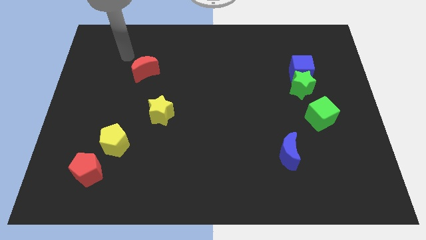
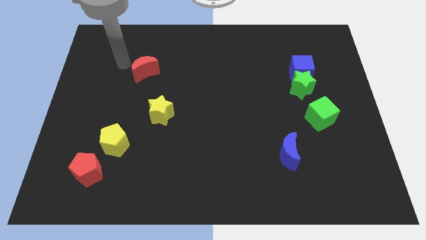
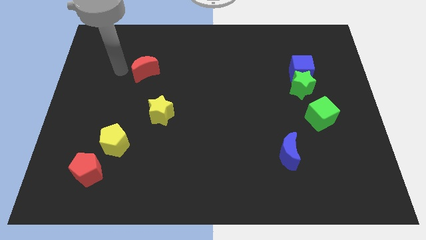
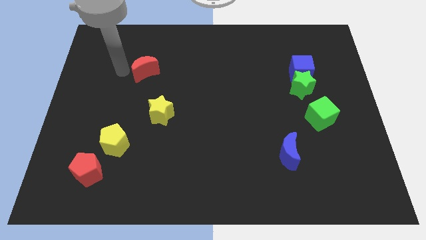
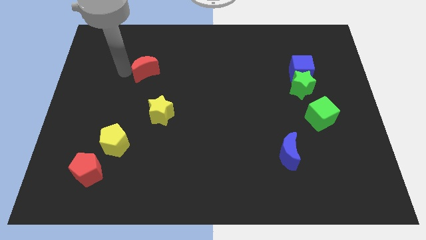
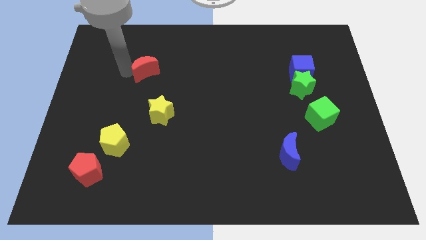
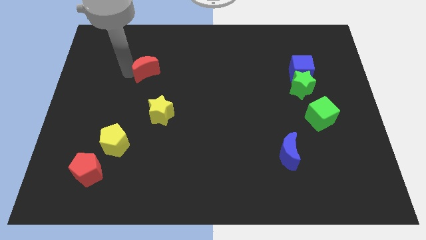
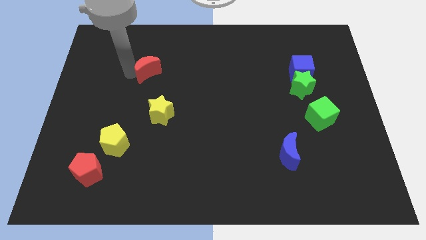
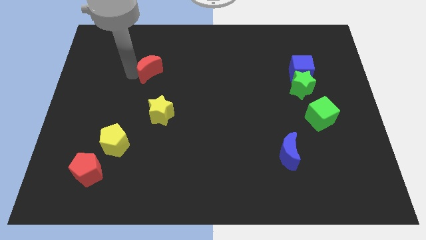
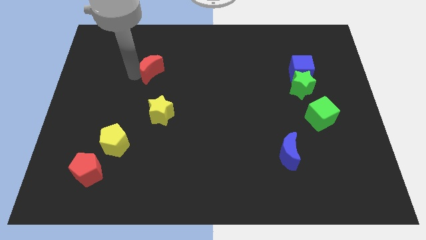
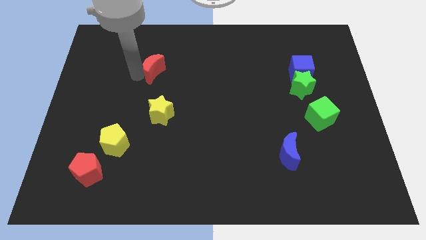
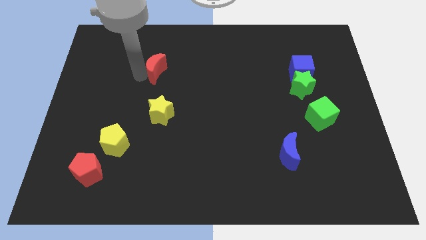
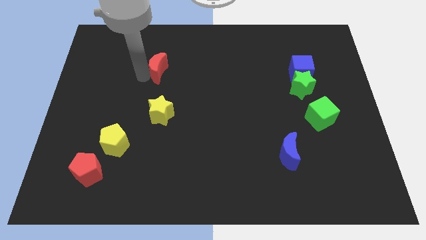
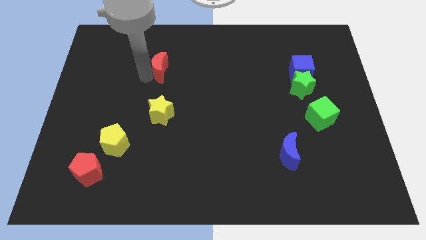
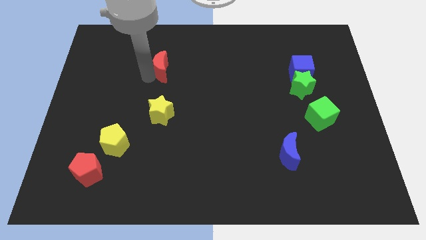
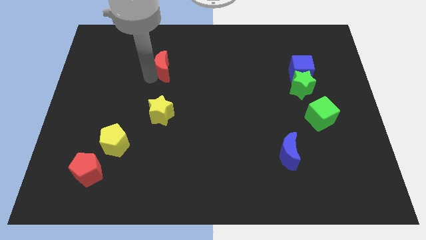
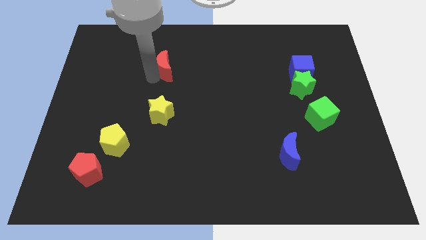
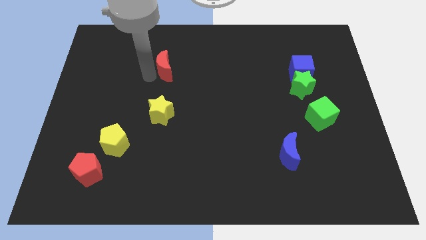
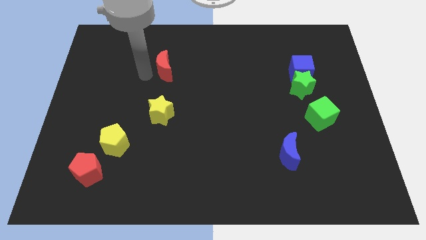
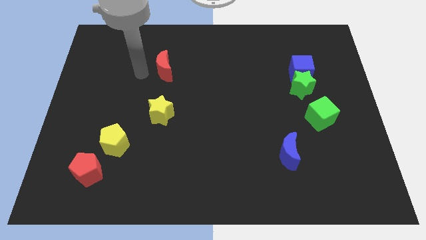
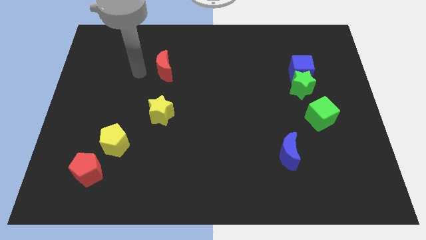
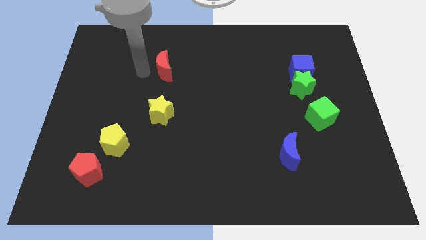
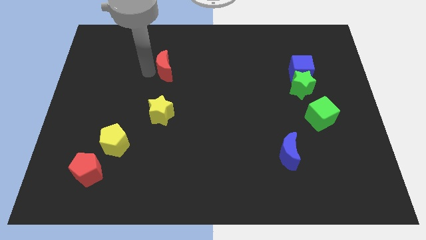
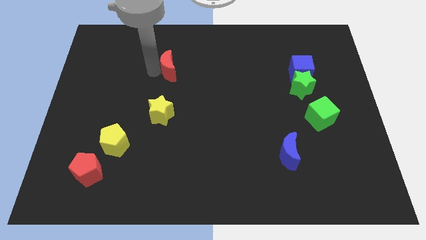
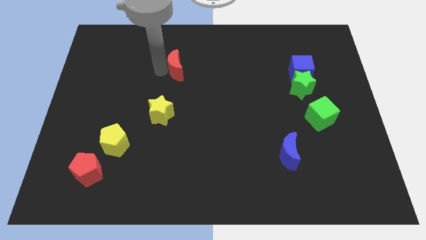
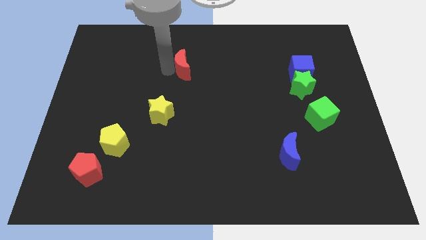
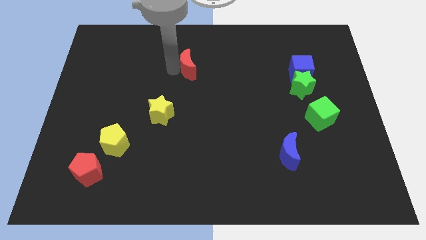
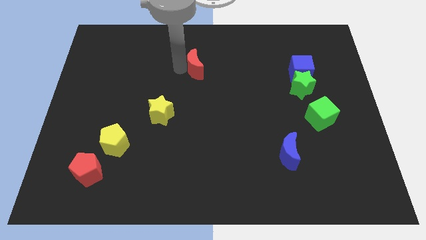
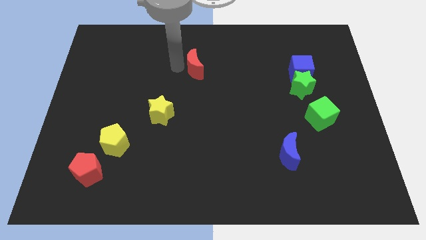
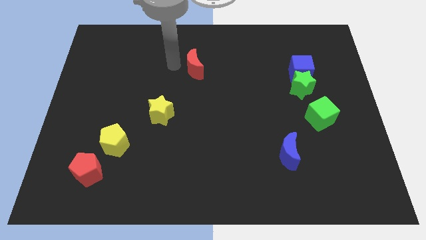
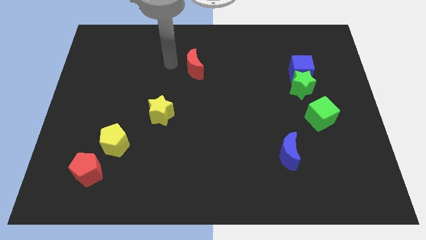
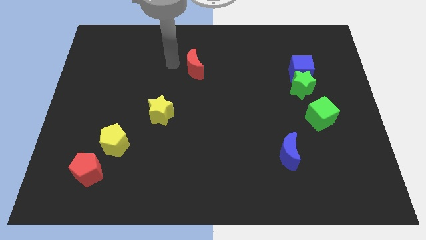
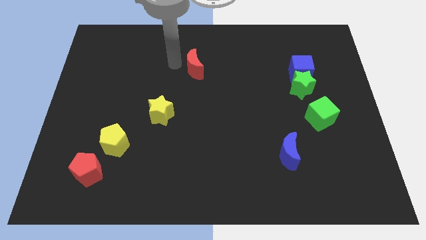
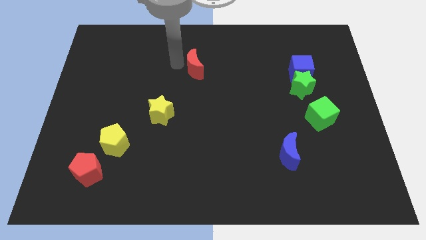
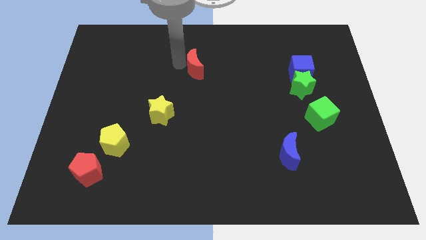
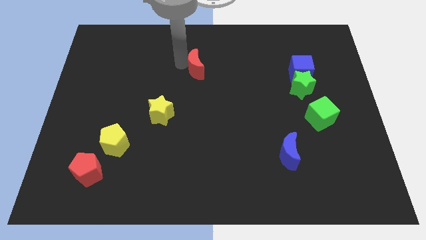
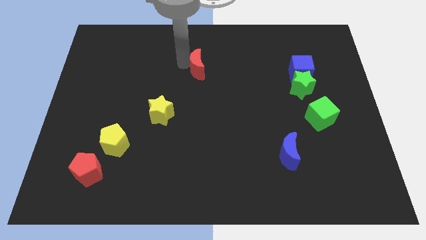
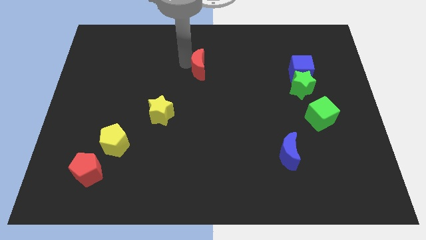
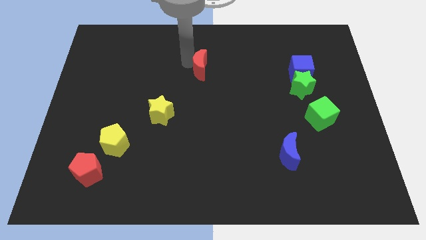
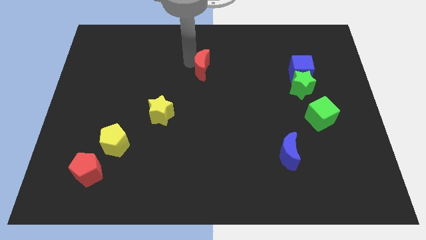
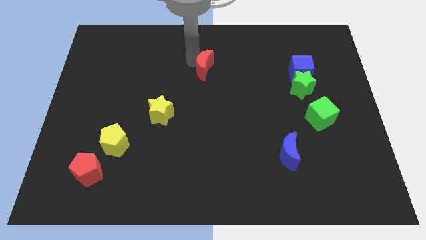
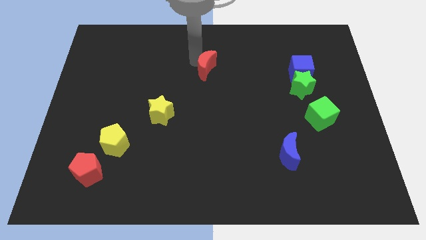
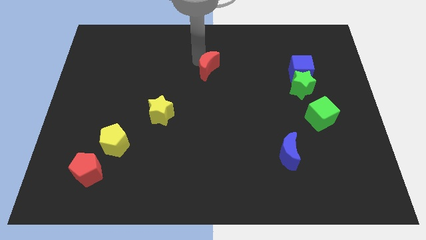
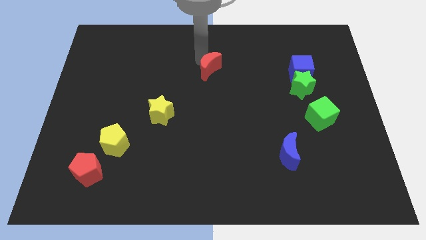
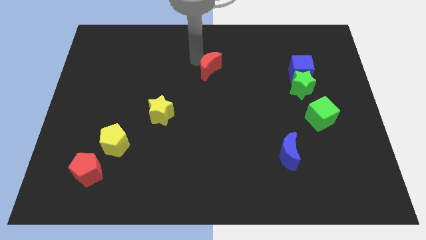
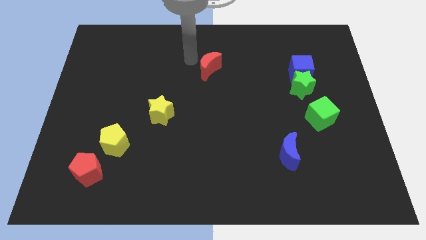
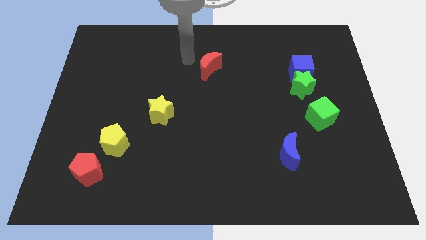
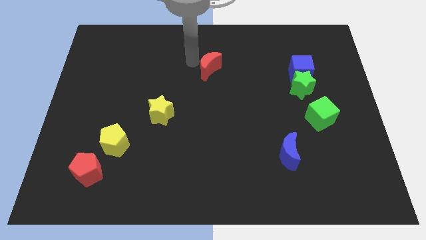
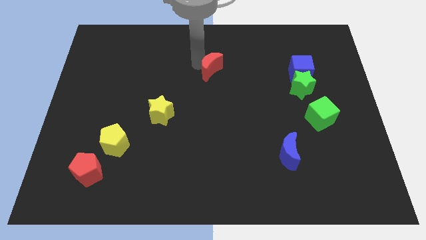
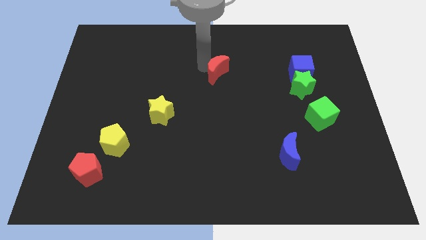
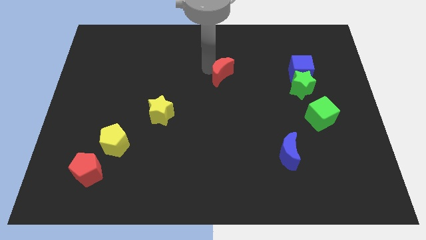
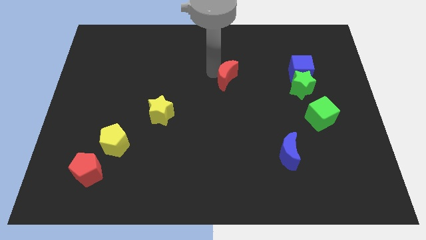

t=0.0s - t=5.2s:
move the red moon right

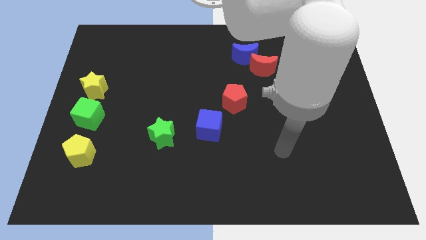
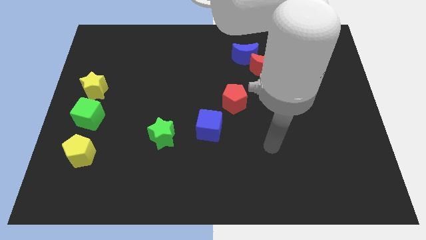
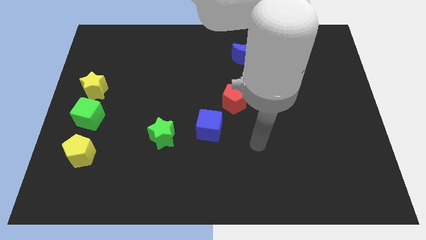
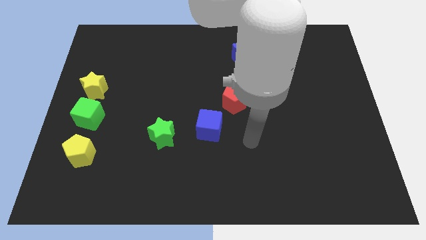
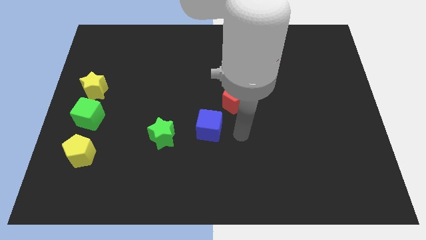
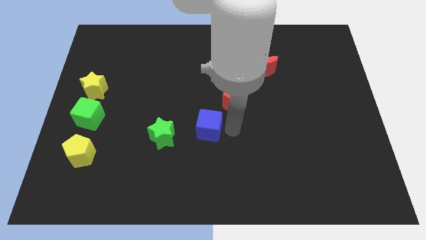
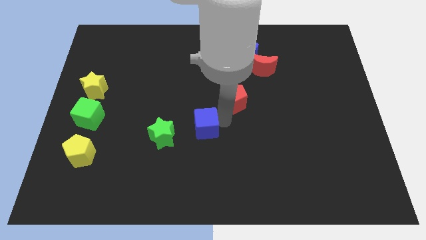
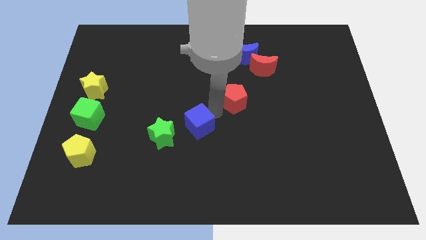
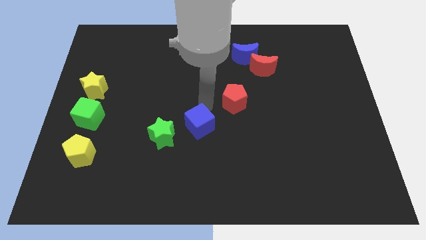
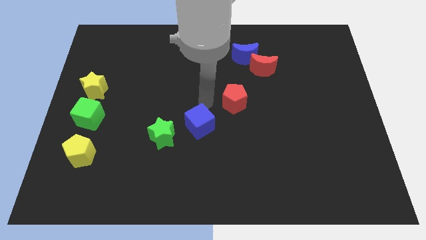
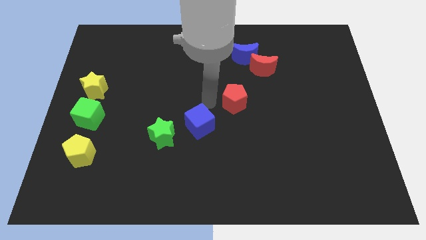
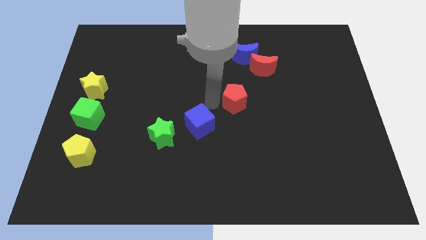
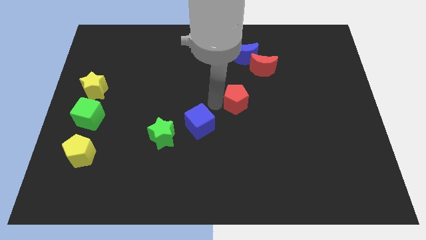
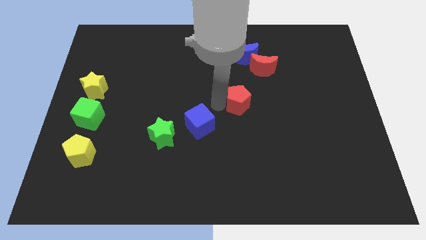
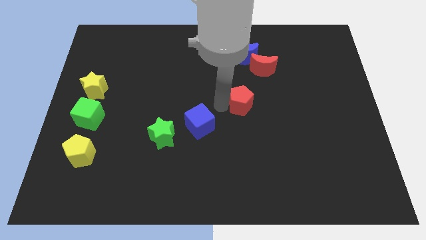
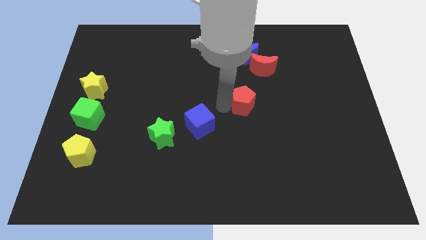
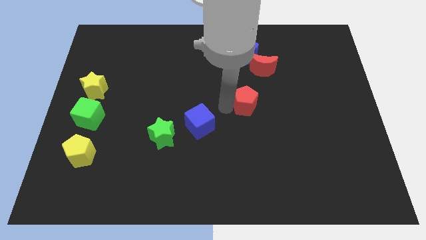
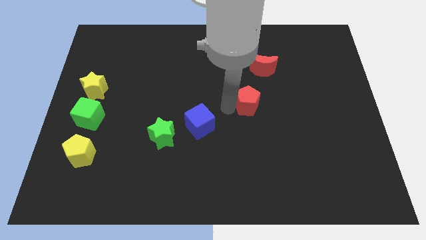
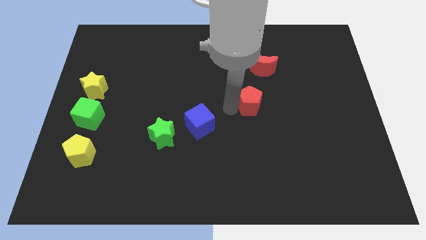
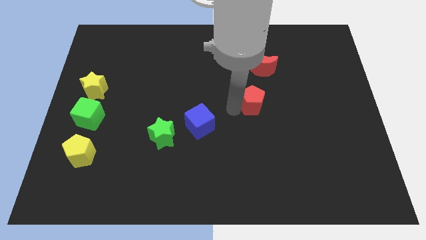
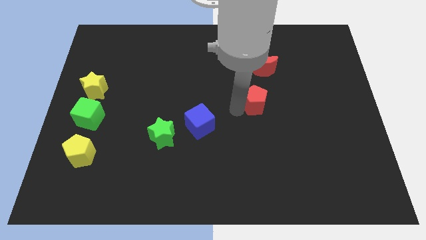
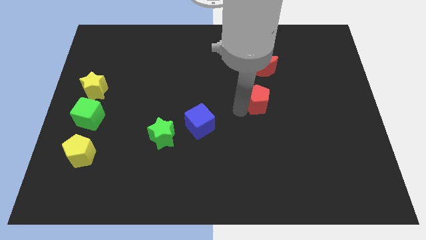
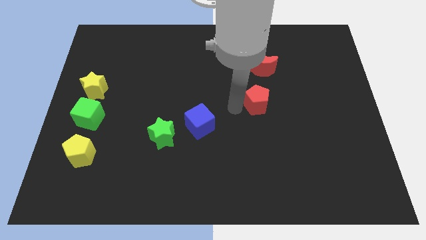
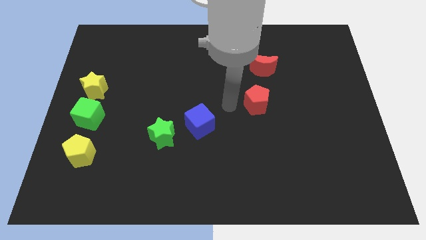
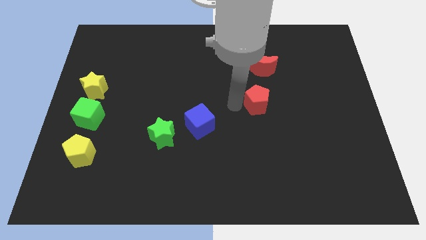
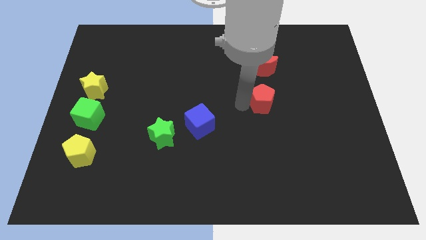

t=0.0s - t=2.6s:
push the red pentagon somewhat right
